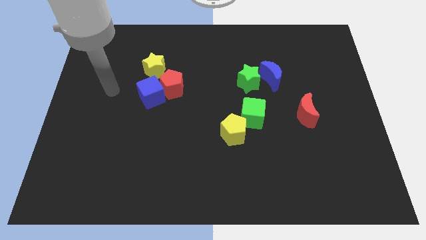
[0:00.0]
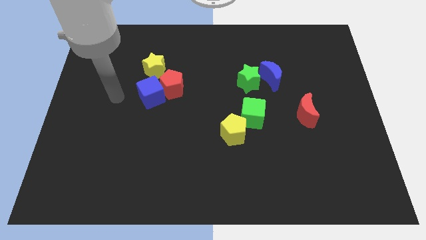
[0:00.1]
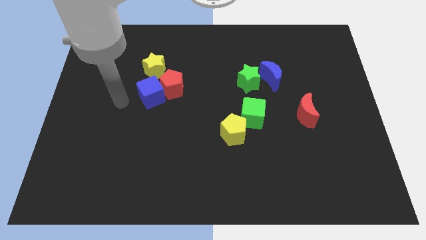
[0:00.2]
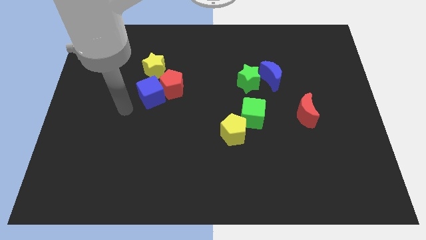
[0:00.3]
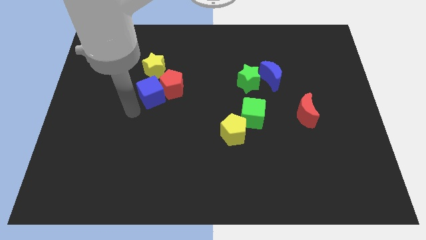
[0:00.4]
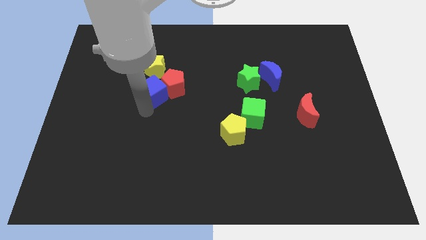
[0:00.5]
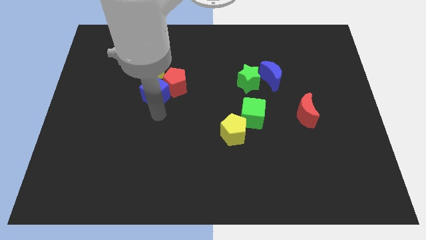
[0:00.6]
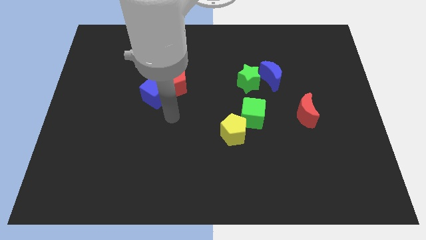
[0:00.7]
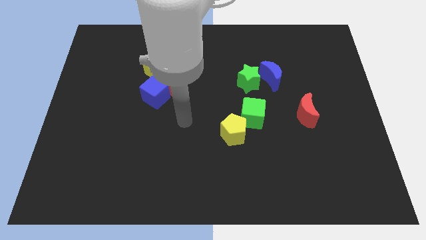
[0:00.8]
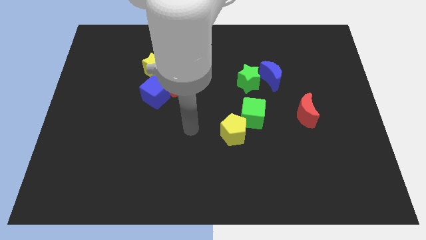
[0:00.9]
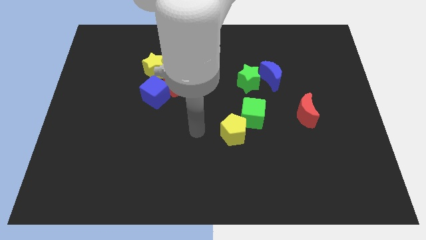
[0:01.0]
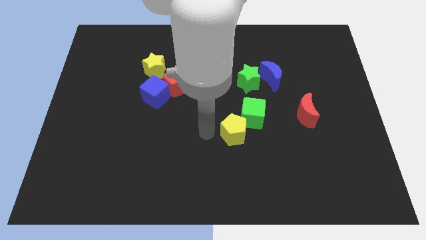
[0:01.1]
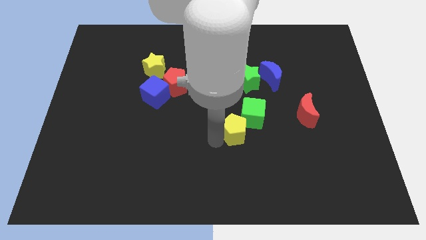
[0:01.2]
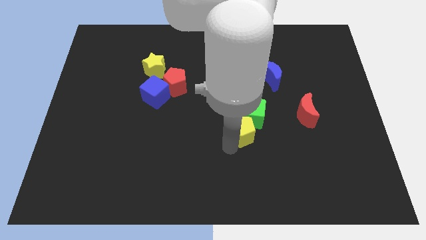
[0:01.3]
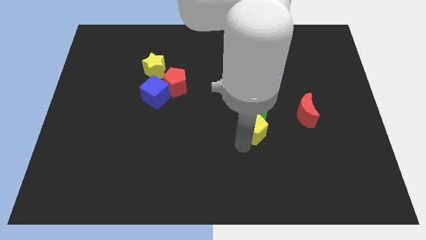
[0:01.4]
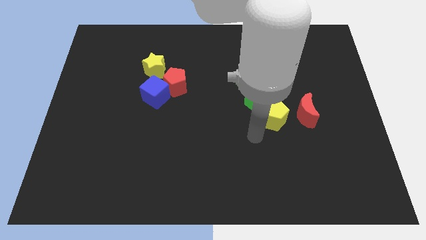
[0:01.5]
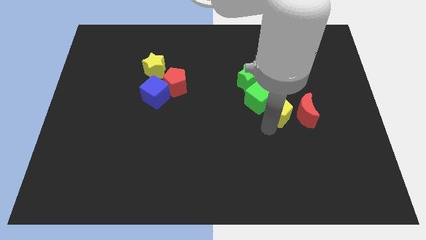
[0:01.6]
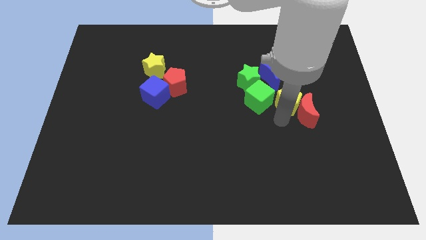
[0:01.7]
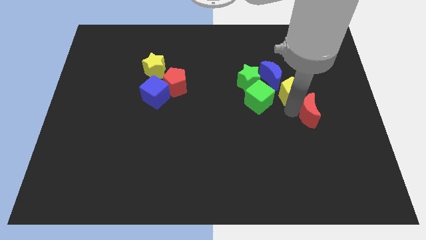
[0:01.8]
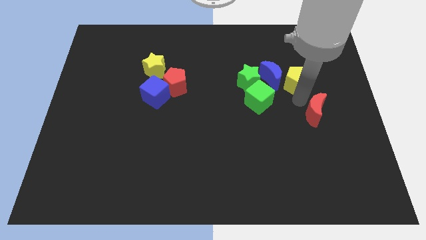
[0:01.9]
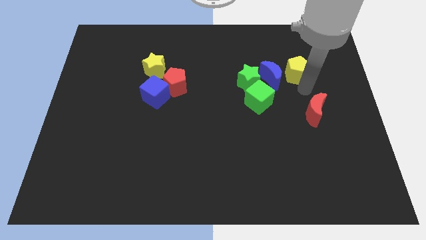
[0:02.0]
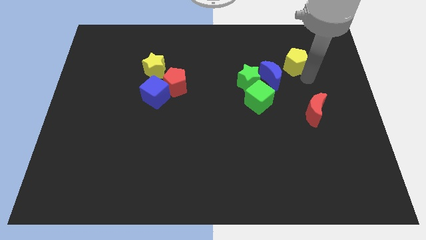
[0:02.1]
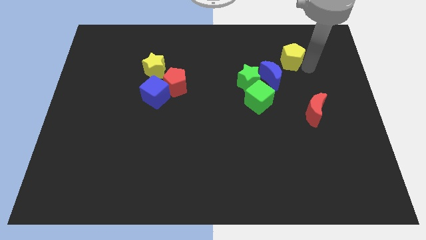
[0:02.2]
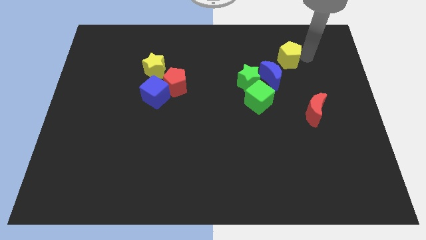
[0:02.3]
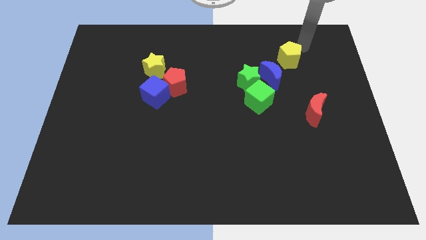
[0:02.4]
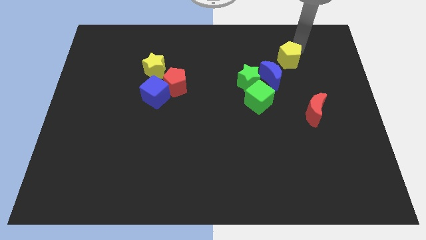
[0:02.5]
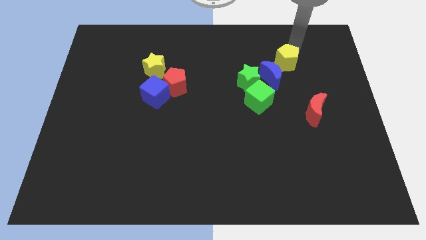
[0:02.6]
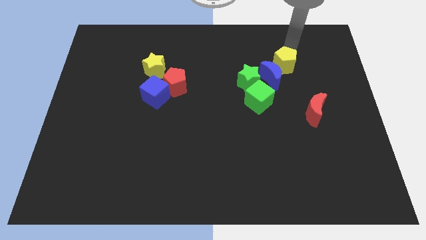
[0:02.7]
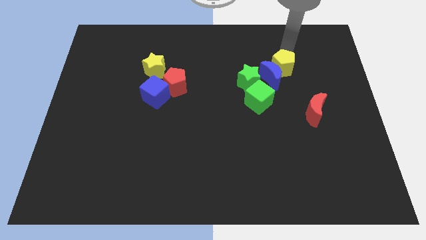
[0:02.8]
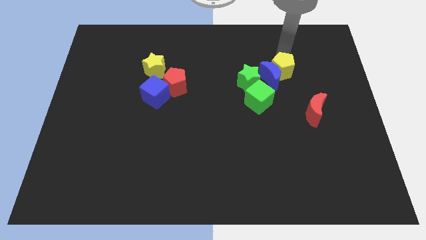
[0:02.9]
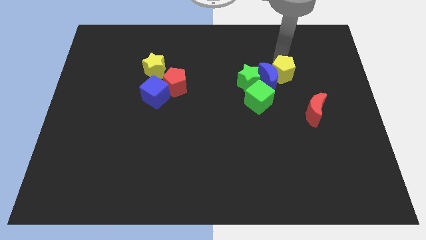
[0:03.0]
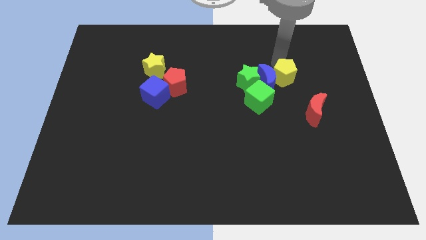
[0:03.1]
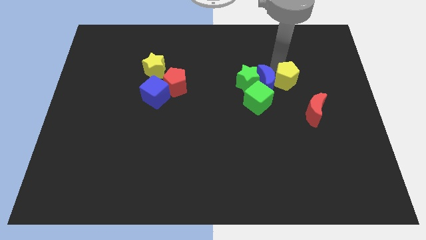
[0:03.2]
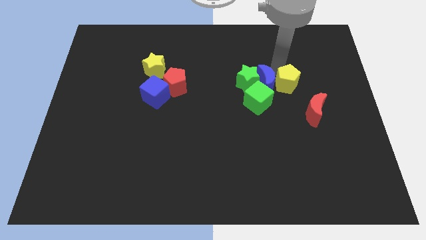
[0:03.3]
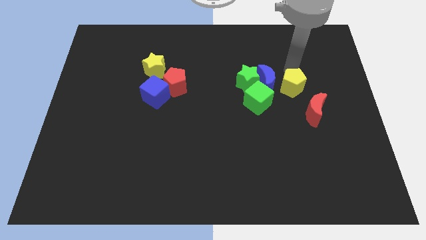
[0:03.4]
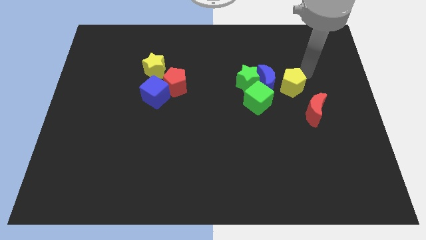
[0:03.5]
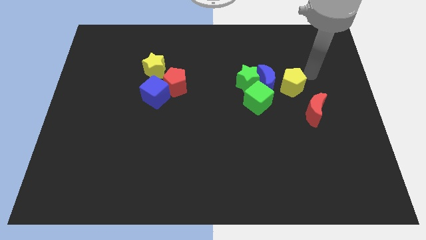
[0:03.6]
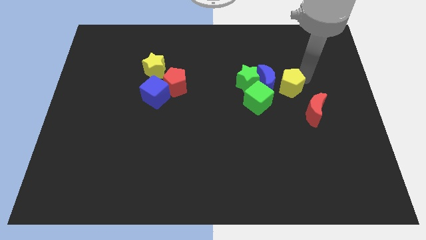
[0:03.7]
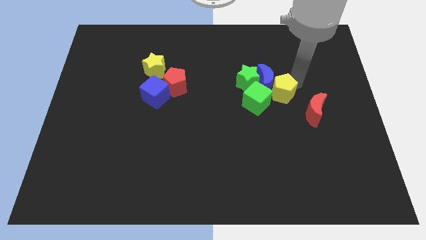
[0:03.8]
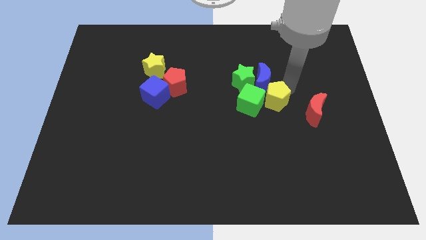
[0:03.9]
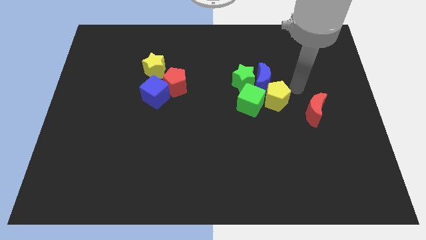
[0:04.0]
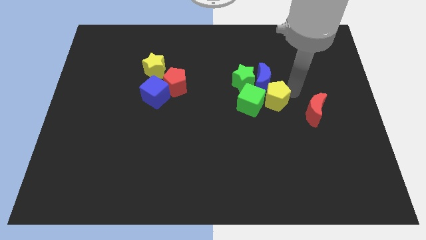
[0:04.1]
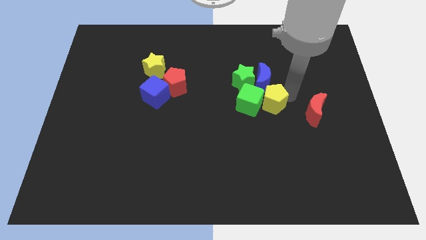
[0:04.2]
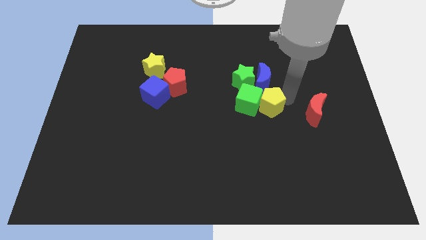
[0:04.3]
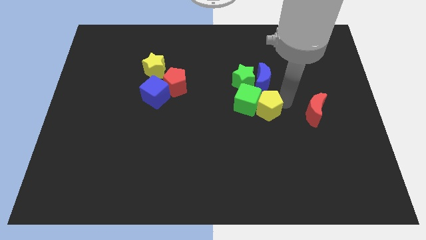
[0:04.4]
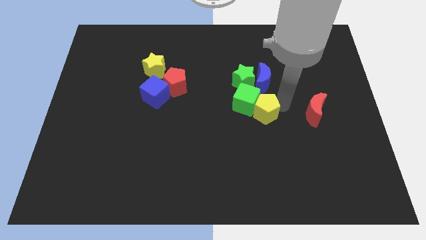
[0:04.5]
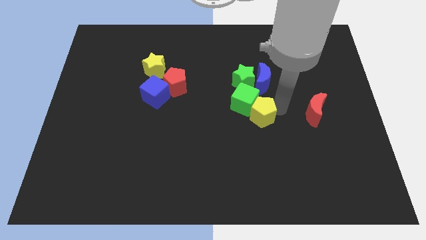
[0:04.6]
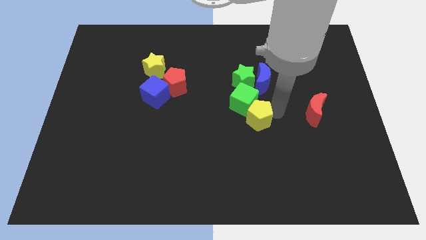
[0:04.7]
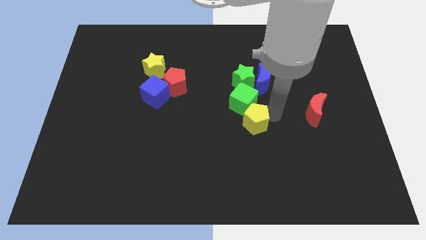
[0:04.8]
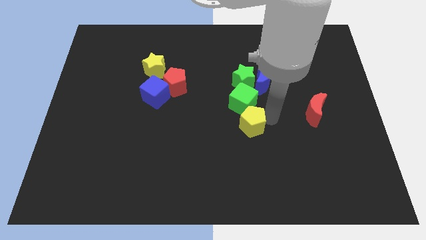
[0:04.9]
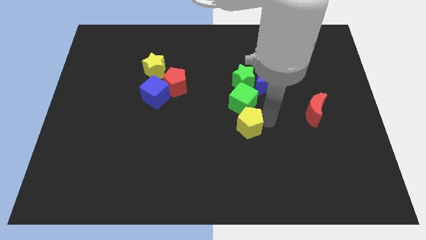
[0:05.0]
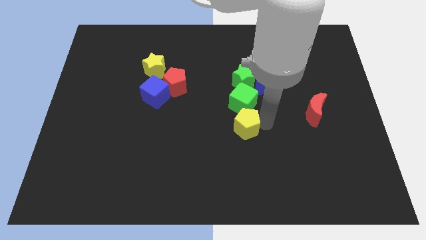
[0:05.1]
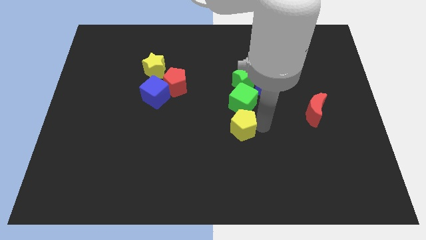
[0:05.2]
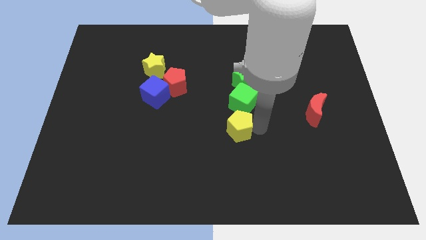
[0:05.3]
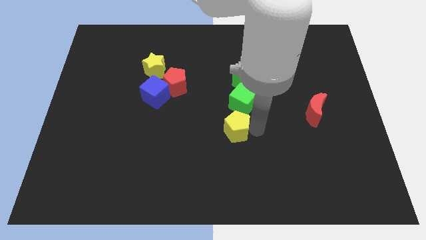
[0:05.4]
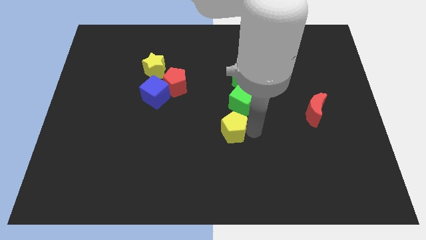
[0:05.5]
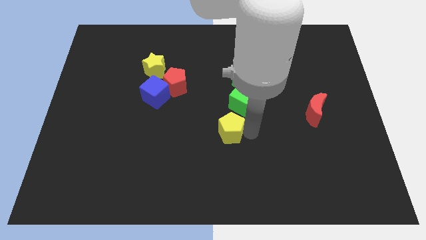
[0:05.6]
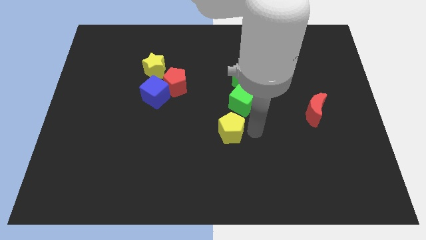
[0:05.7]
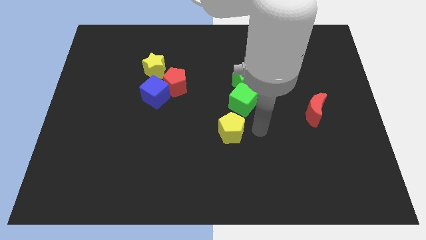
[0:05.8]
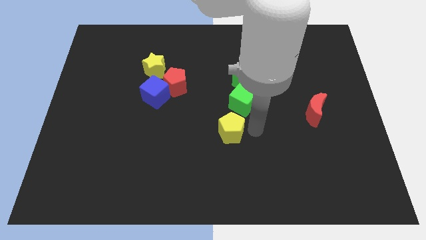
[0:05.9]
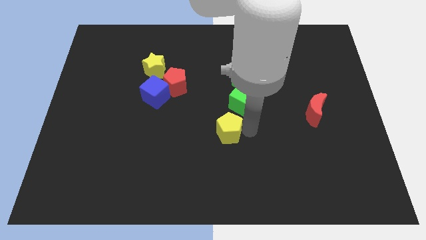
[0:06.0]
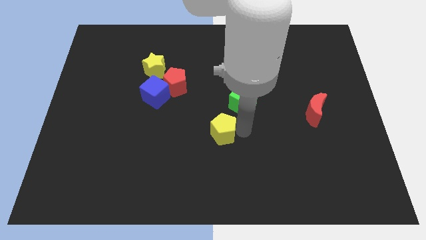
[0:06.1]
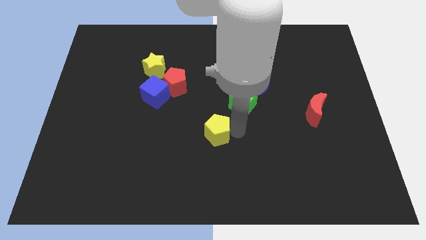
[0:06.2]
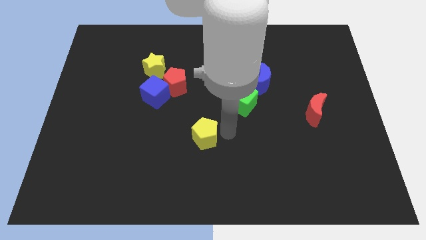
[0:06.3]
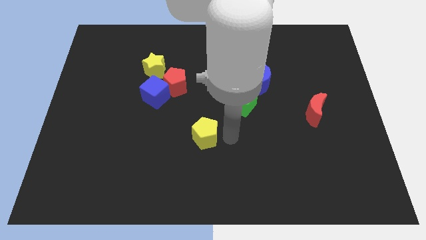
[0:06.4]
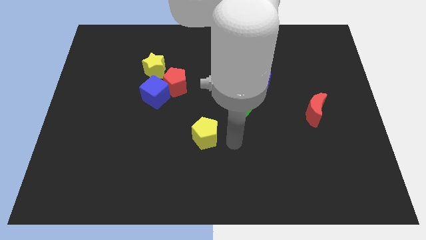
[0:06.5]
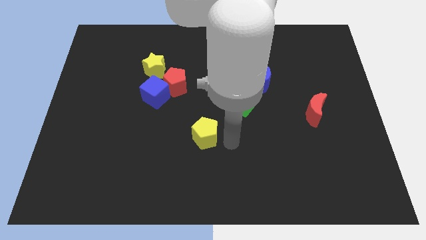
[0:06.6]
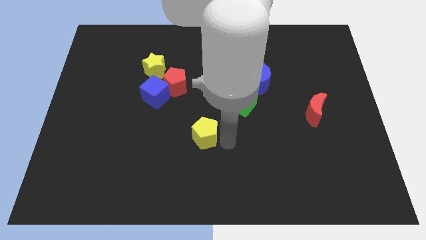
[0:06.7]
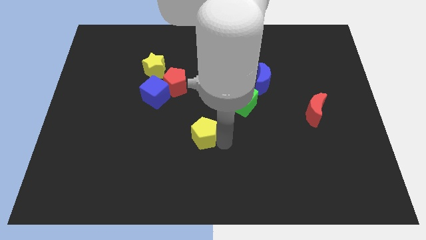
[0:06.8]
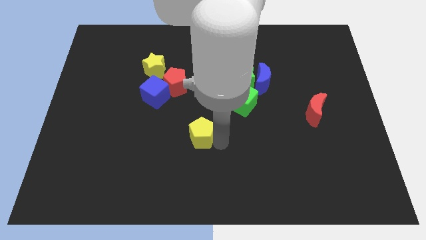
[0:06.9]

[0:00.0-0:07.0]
push the yellow pentagon a little bit left

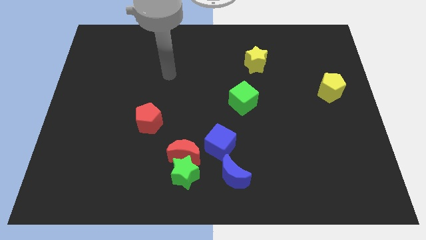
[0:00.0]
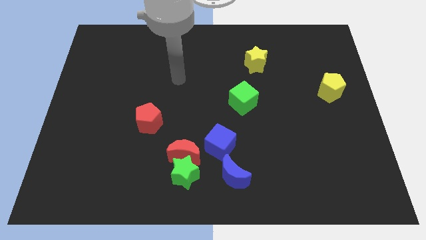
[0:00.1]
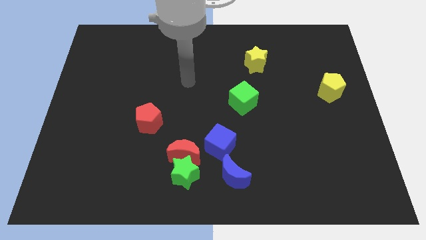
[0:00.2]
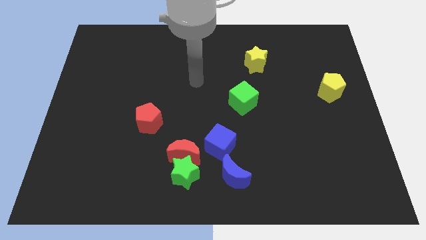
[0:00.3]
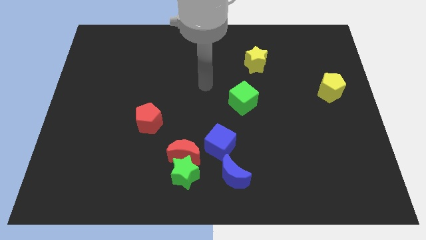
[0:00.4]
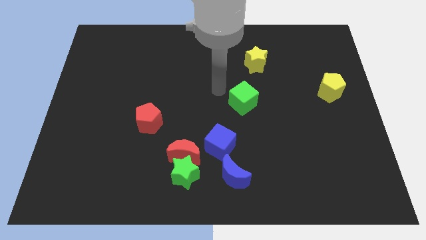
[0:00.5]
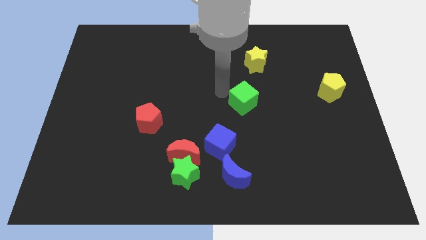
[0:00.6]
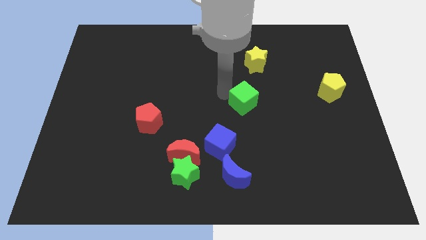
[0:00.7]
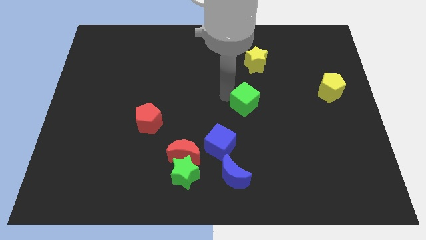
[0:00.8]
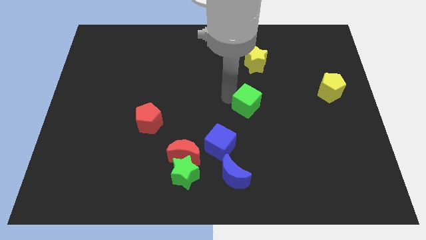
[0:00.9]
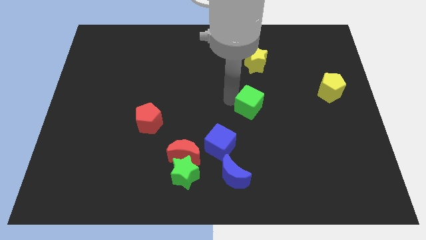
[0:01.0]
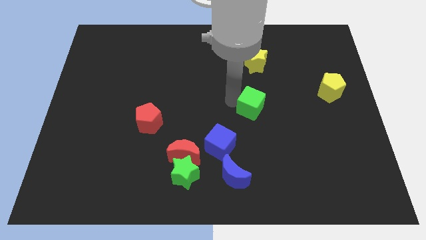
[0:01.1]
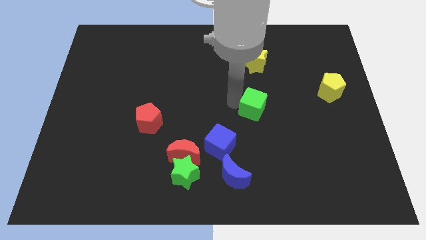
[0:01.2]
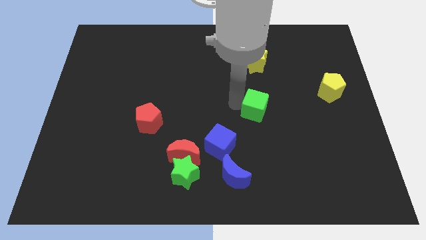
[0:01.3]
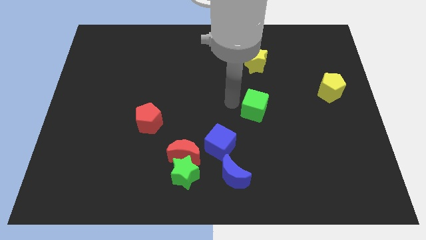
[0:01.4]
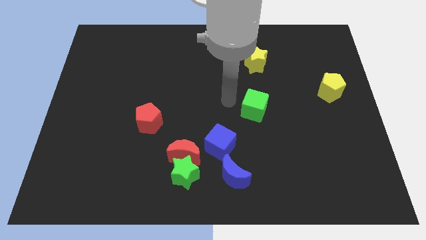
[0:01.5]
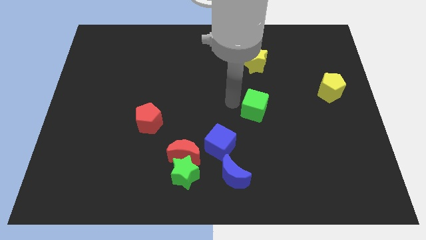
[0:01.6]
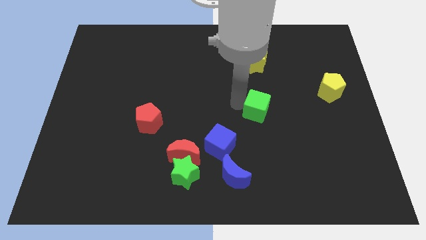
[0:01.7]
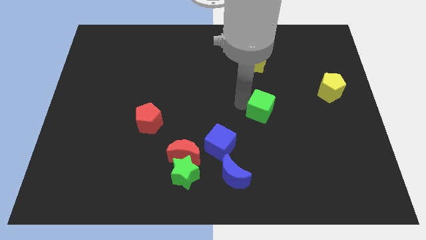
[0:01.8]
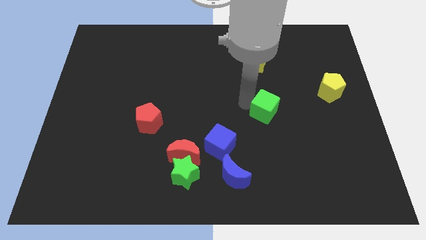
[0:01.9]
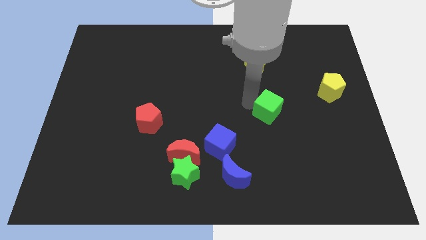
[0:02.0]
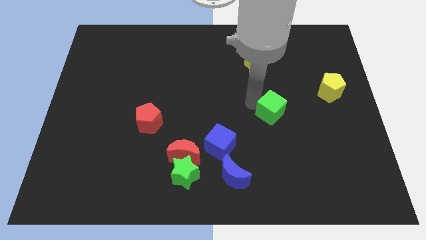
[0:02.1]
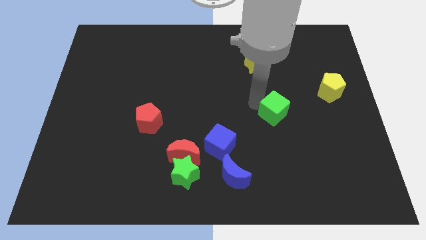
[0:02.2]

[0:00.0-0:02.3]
move the green cube a little downwards and right
